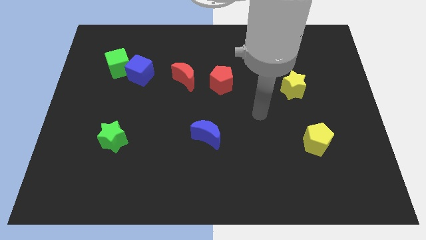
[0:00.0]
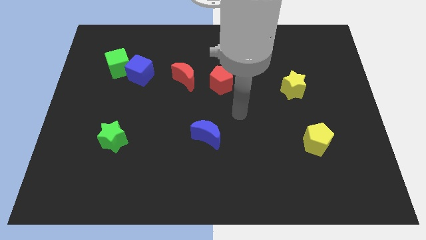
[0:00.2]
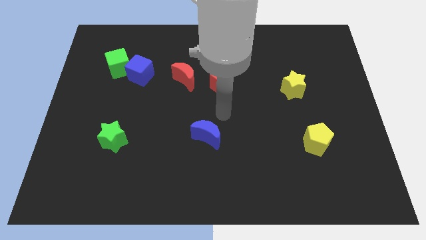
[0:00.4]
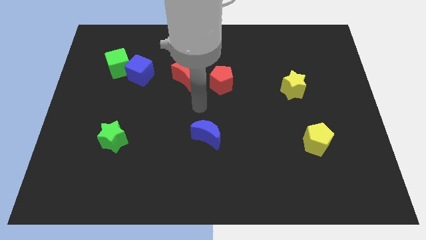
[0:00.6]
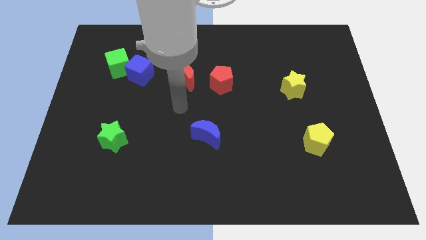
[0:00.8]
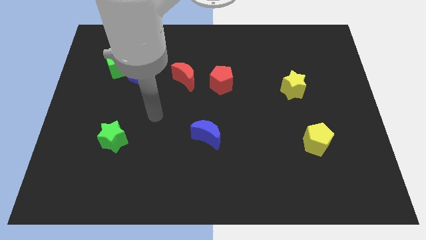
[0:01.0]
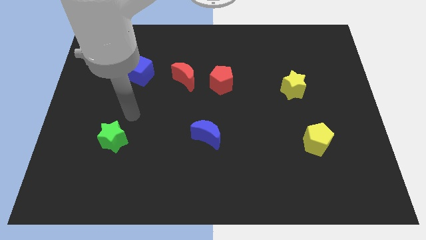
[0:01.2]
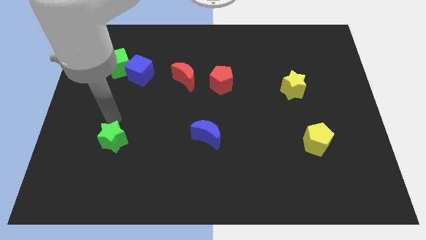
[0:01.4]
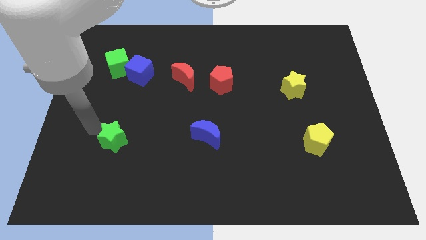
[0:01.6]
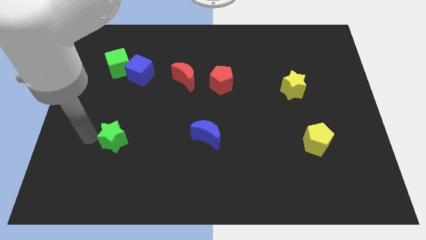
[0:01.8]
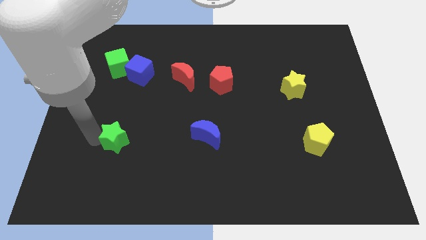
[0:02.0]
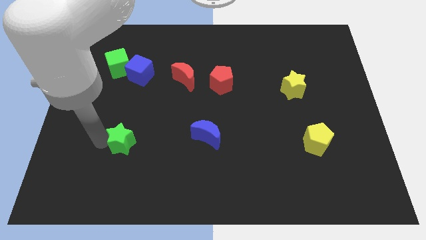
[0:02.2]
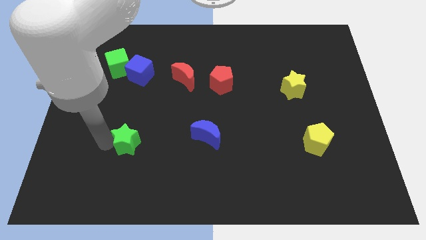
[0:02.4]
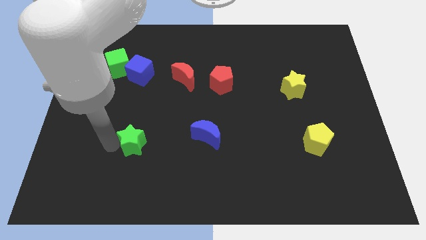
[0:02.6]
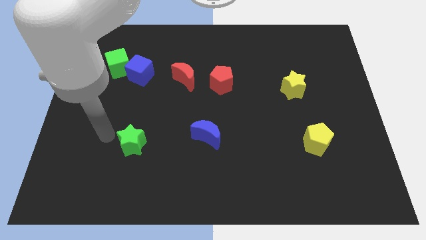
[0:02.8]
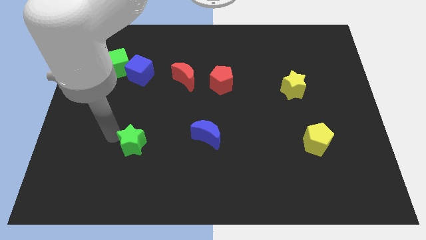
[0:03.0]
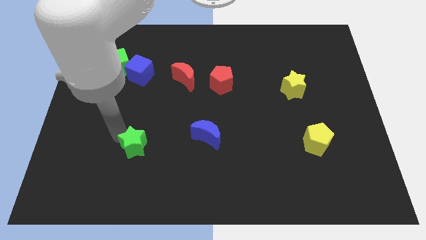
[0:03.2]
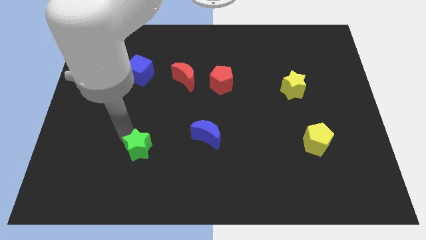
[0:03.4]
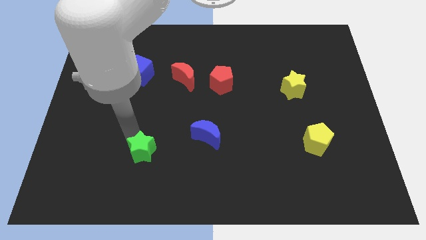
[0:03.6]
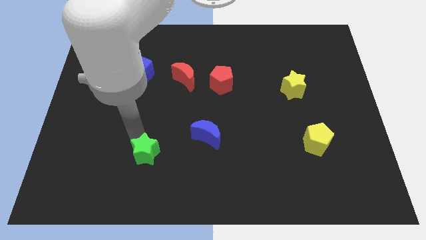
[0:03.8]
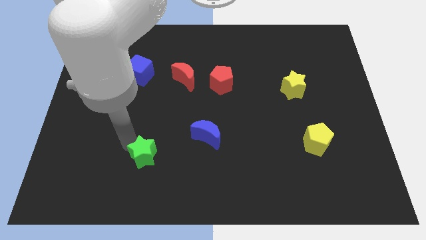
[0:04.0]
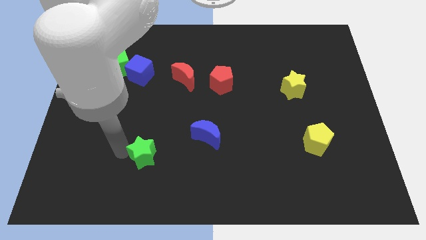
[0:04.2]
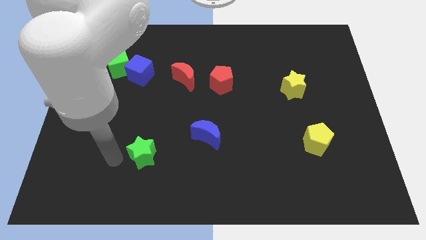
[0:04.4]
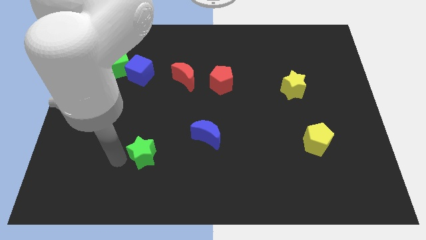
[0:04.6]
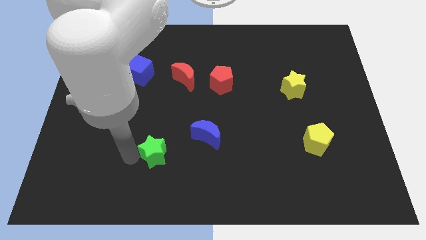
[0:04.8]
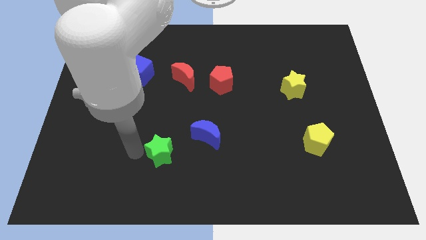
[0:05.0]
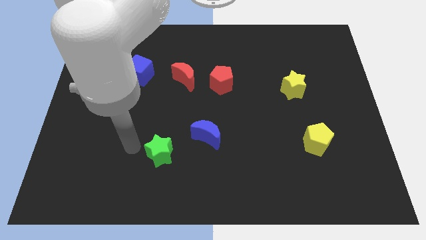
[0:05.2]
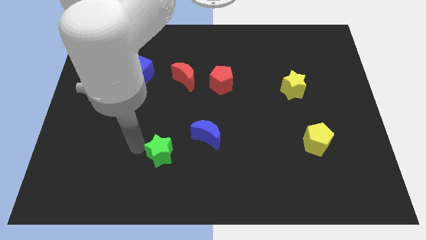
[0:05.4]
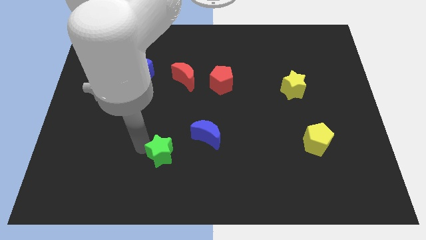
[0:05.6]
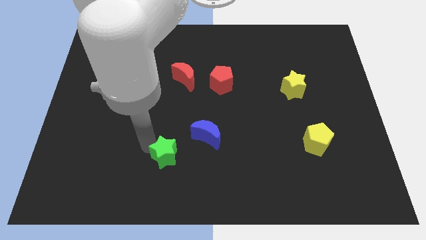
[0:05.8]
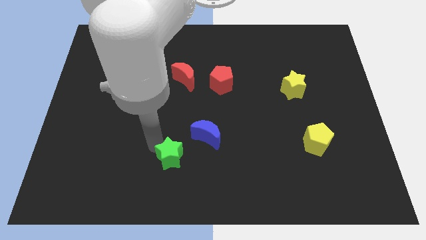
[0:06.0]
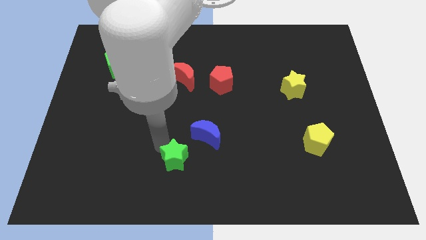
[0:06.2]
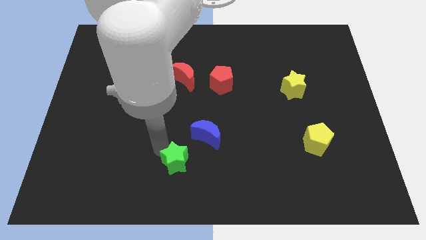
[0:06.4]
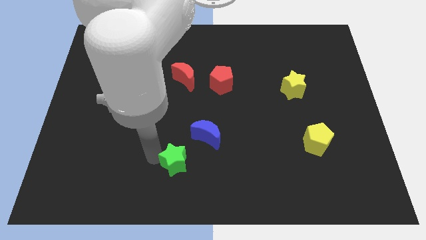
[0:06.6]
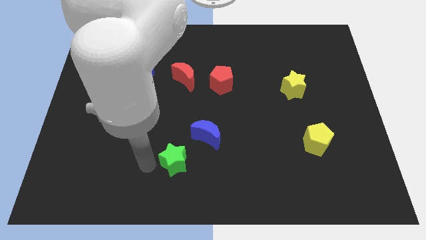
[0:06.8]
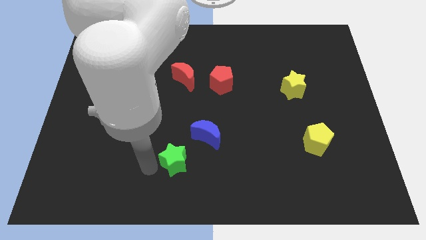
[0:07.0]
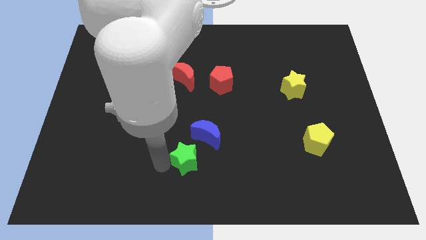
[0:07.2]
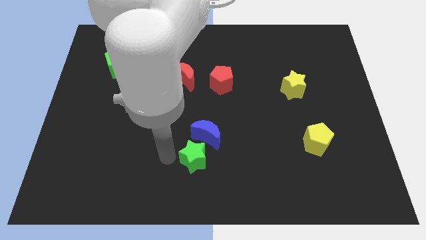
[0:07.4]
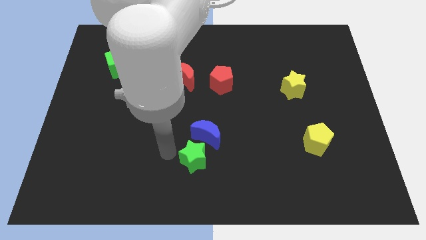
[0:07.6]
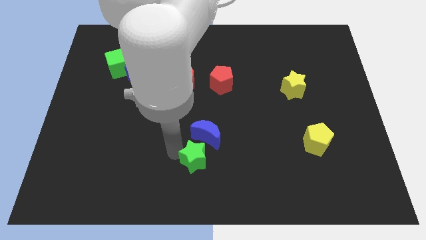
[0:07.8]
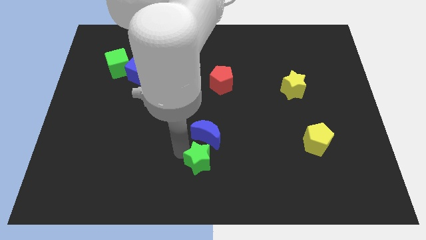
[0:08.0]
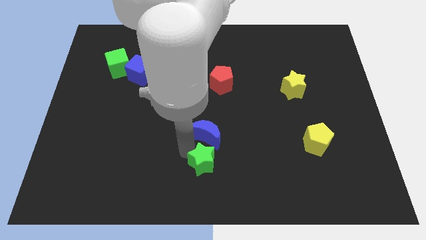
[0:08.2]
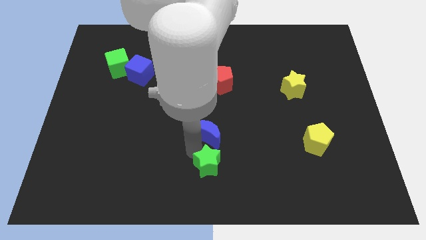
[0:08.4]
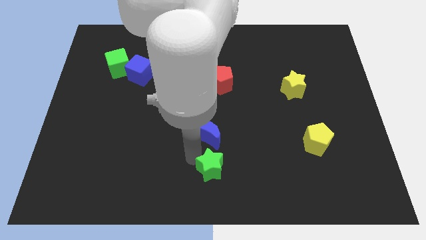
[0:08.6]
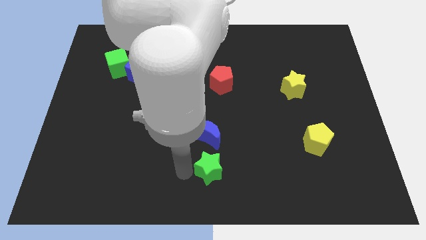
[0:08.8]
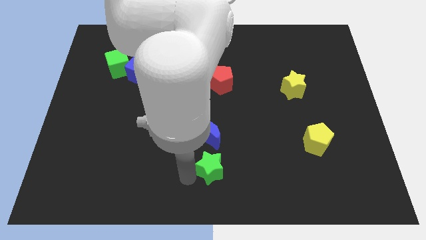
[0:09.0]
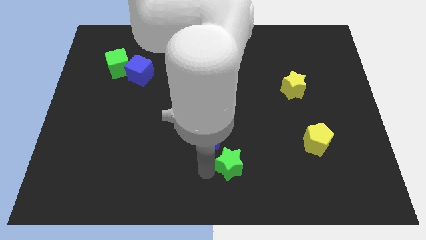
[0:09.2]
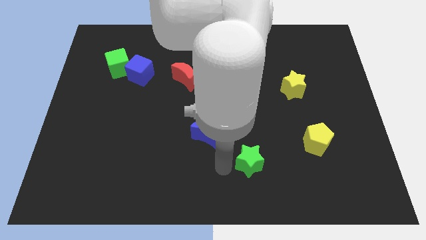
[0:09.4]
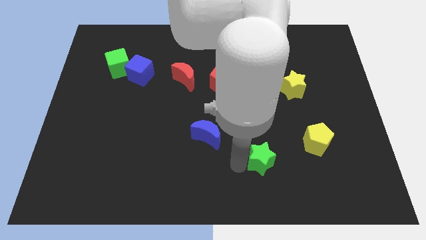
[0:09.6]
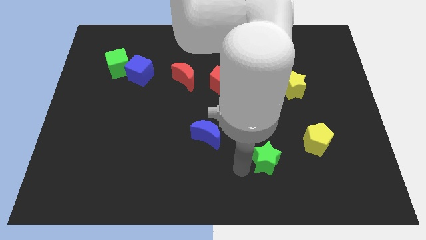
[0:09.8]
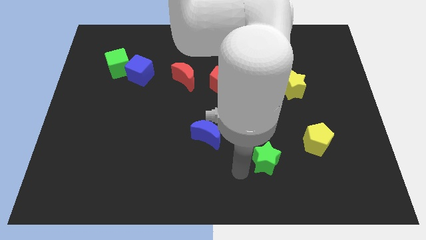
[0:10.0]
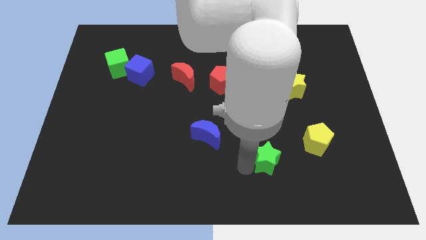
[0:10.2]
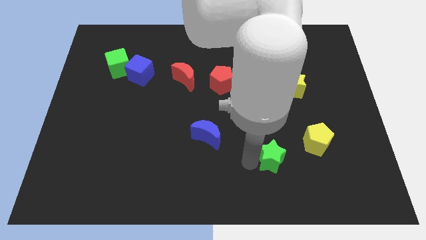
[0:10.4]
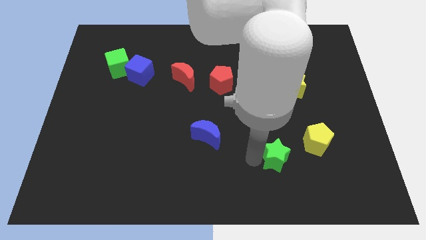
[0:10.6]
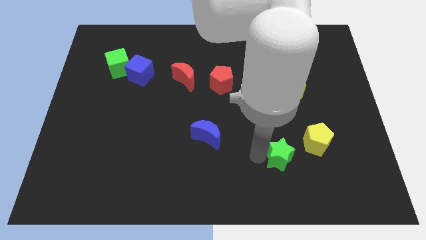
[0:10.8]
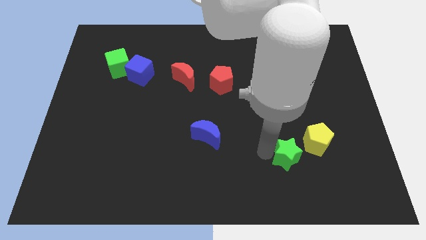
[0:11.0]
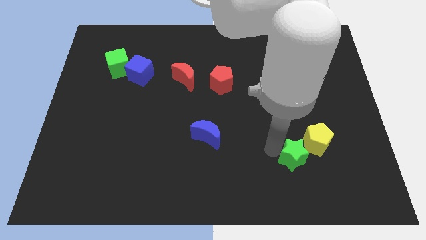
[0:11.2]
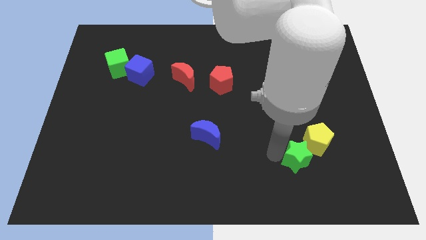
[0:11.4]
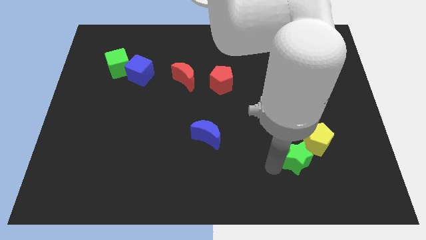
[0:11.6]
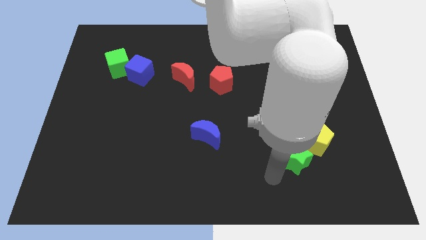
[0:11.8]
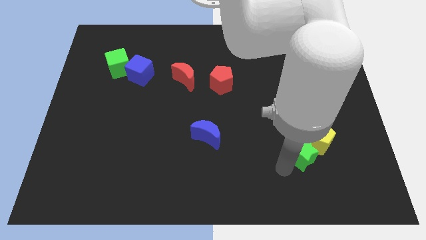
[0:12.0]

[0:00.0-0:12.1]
slide the green star to the yellow pentagon

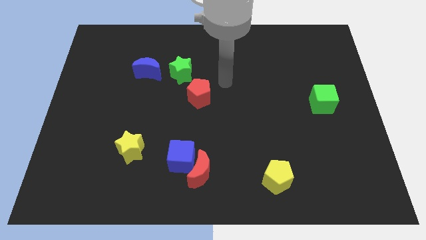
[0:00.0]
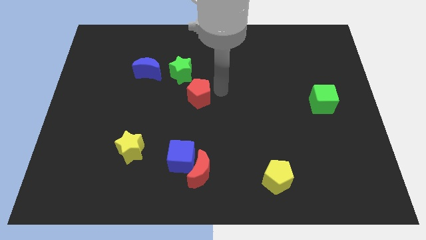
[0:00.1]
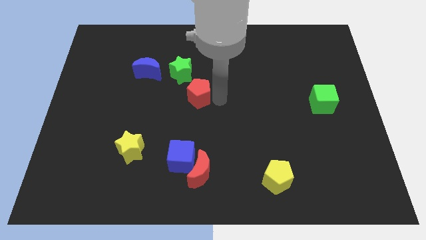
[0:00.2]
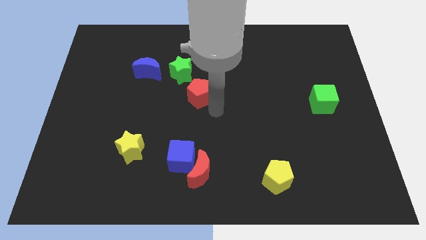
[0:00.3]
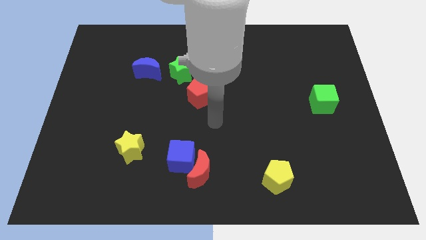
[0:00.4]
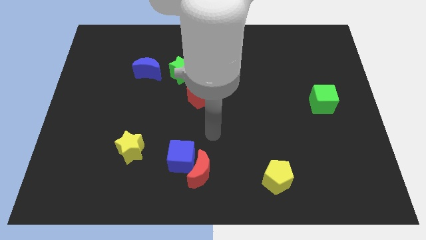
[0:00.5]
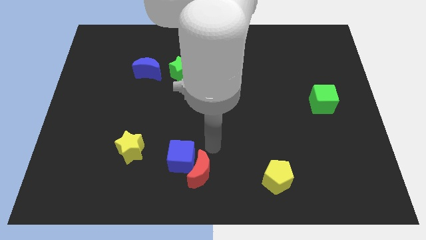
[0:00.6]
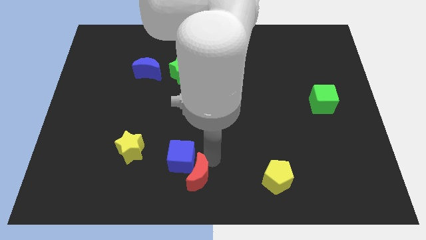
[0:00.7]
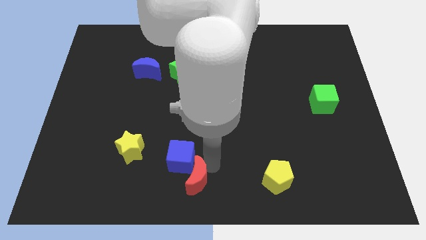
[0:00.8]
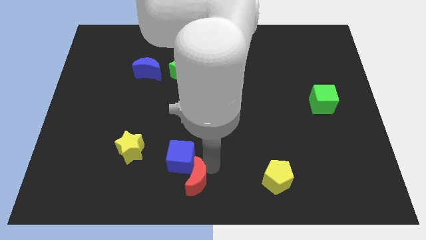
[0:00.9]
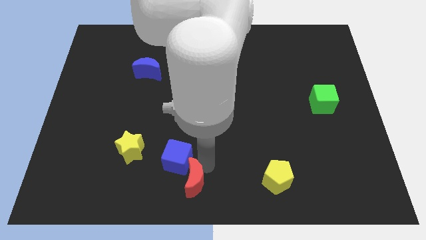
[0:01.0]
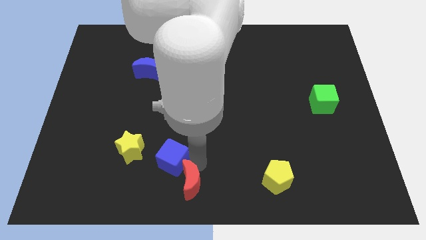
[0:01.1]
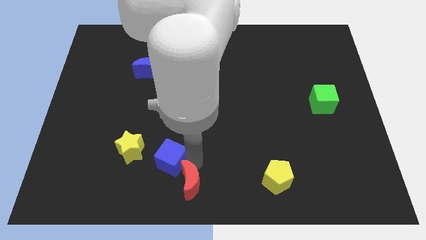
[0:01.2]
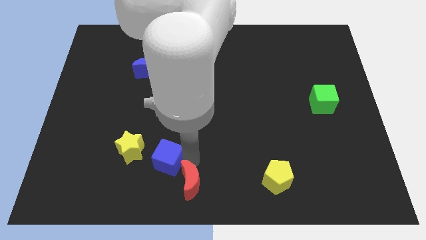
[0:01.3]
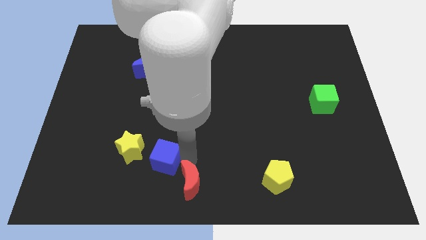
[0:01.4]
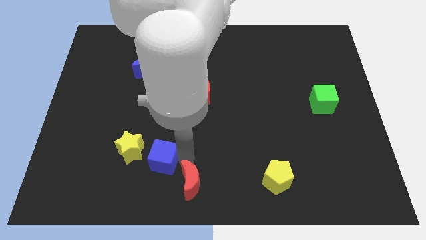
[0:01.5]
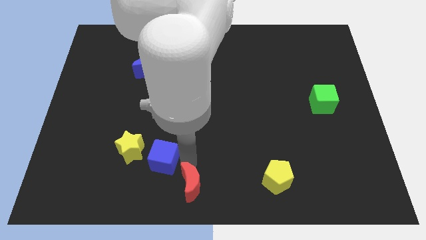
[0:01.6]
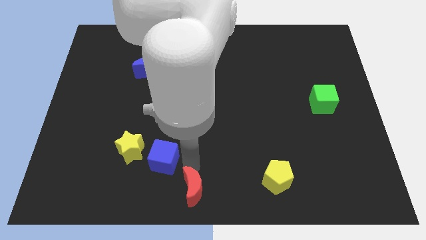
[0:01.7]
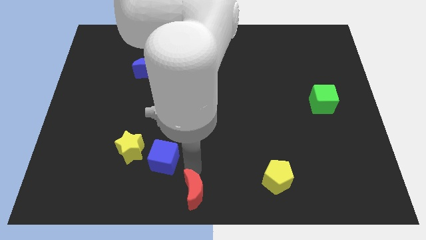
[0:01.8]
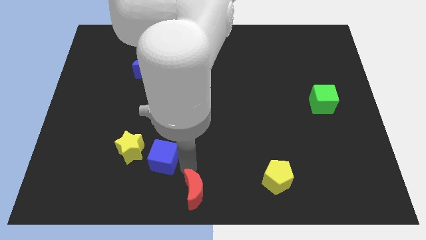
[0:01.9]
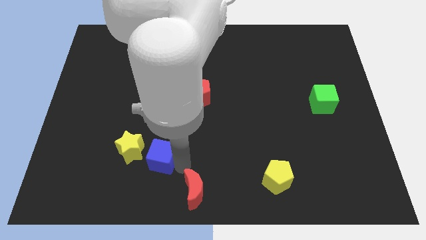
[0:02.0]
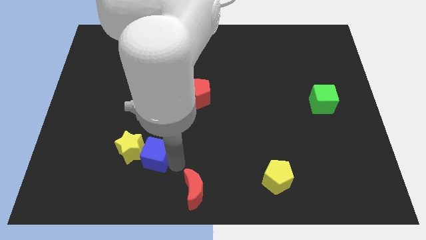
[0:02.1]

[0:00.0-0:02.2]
move the blue cube towards the yellow star
